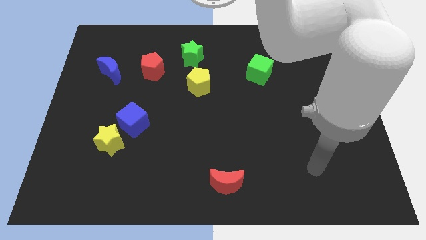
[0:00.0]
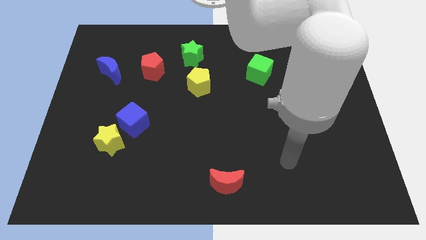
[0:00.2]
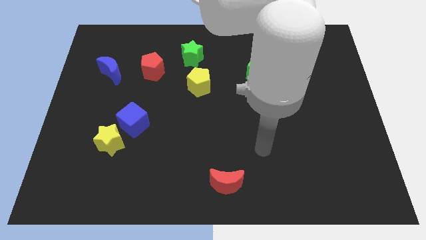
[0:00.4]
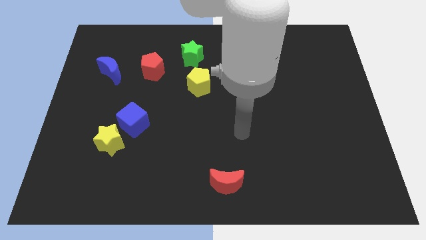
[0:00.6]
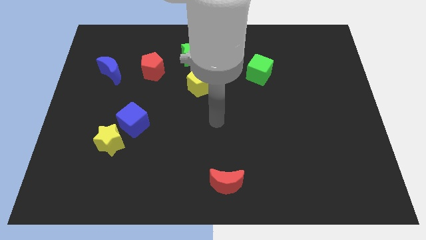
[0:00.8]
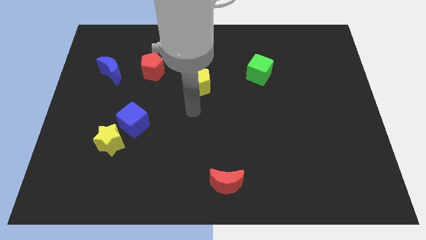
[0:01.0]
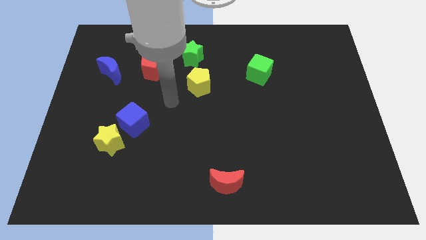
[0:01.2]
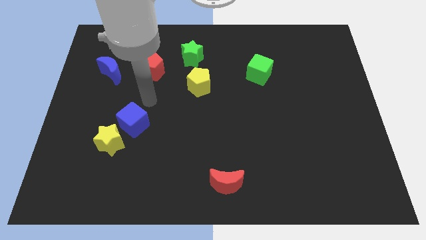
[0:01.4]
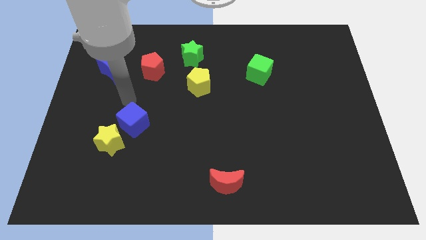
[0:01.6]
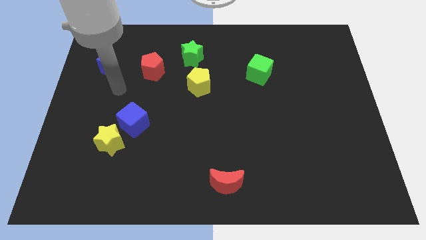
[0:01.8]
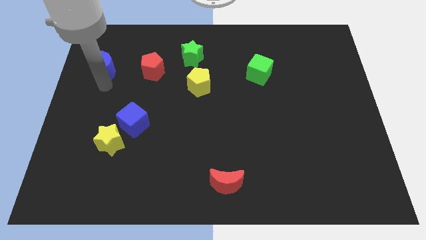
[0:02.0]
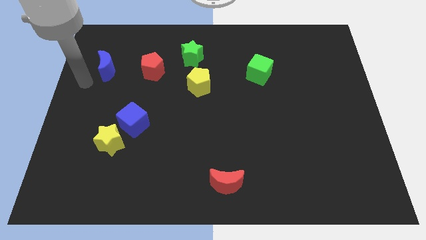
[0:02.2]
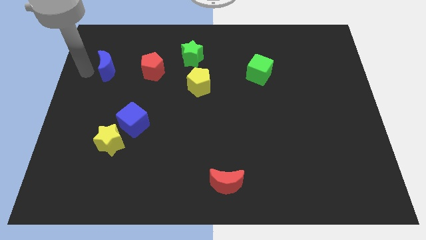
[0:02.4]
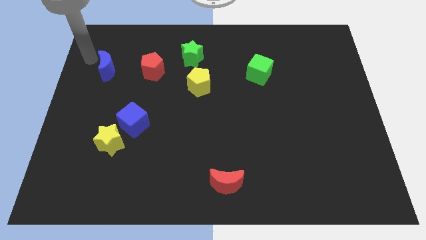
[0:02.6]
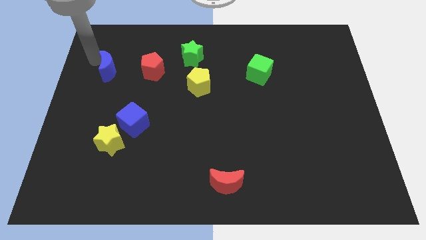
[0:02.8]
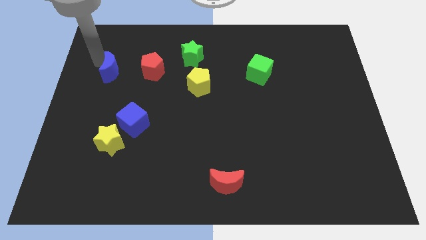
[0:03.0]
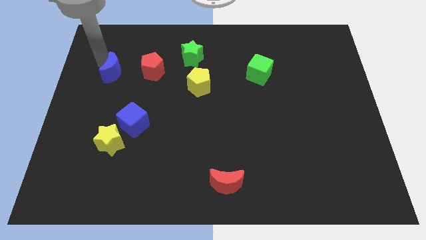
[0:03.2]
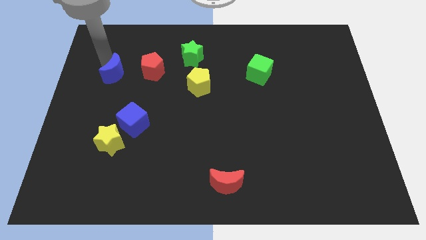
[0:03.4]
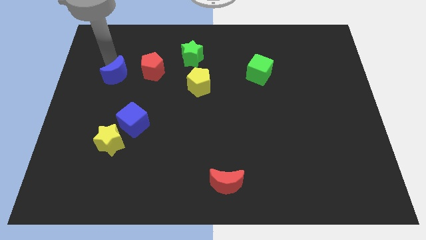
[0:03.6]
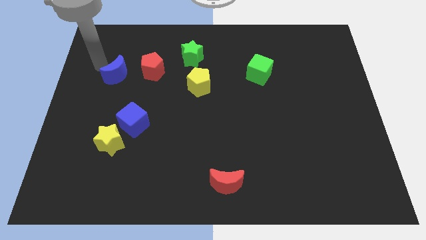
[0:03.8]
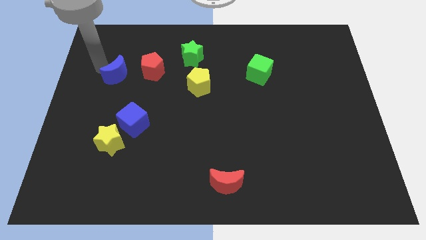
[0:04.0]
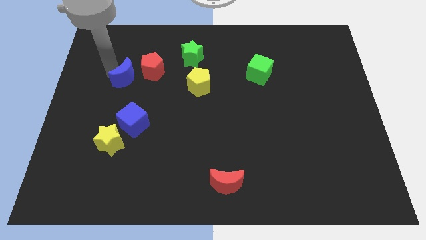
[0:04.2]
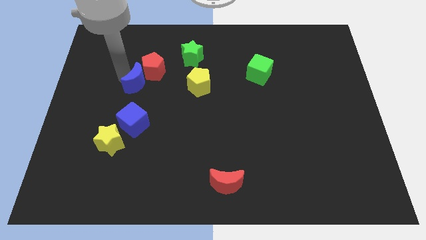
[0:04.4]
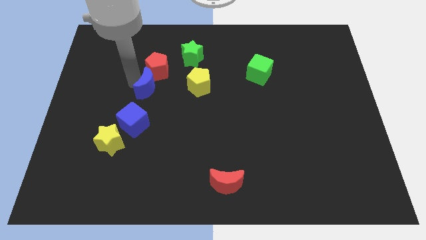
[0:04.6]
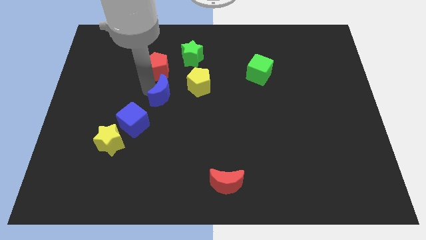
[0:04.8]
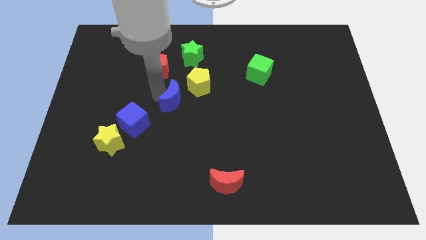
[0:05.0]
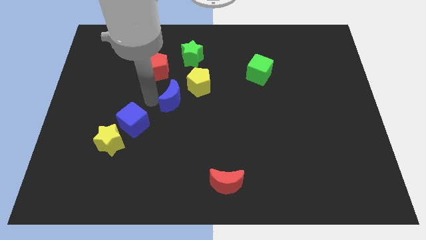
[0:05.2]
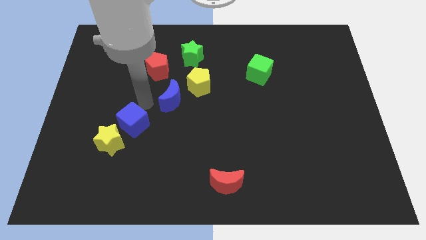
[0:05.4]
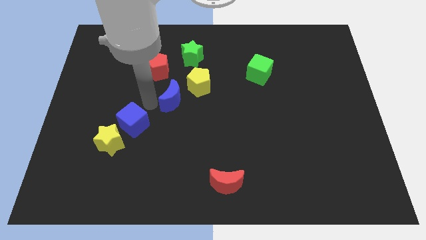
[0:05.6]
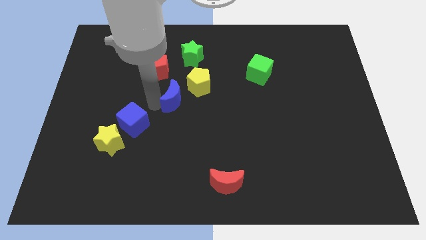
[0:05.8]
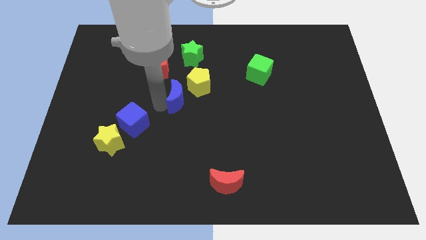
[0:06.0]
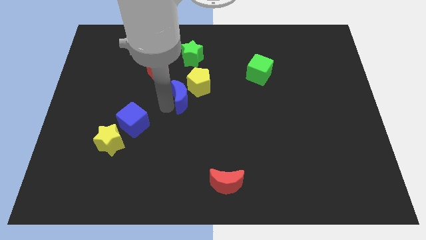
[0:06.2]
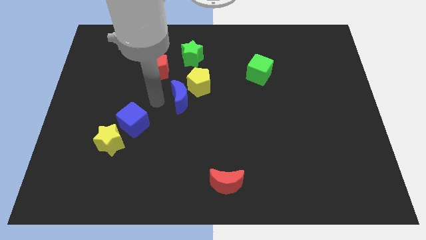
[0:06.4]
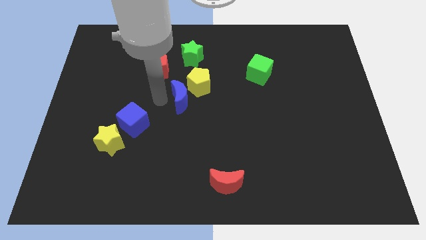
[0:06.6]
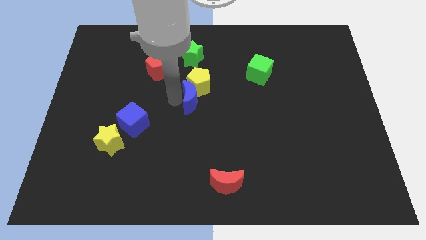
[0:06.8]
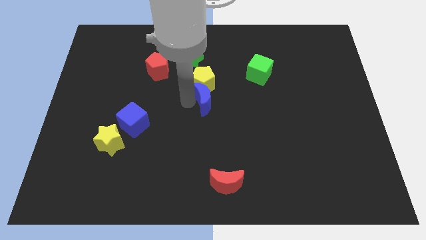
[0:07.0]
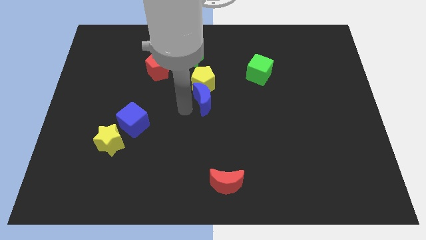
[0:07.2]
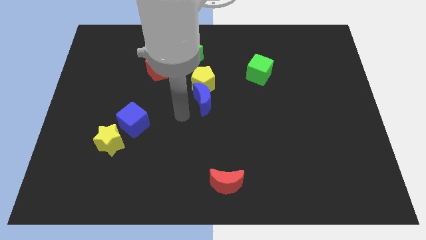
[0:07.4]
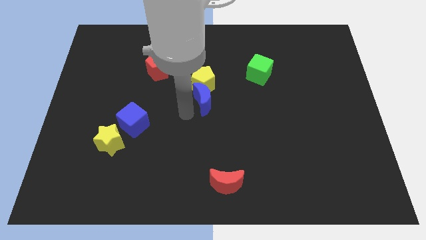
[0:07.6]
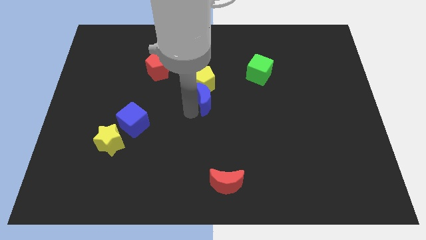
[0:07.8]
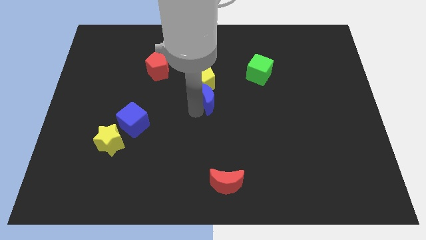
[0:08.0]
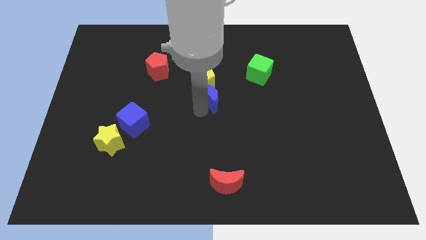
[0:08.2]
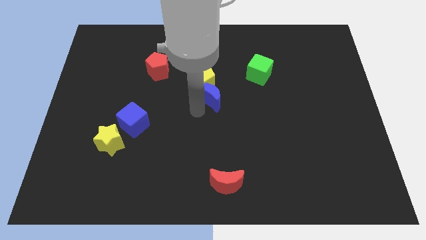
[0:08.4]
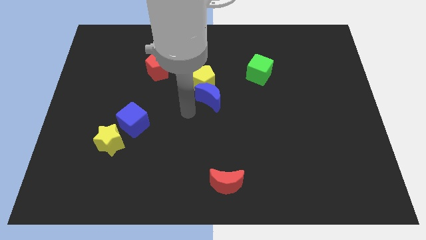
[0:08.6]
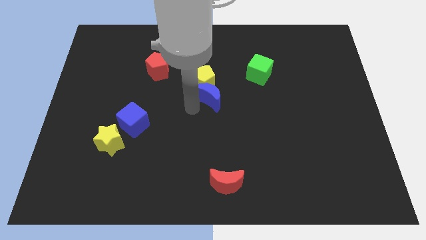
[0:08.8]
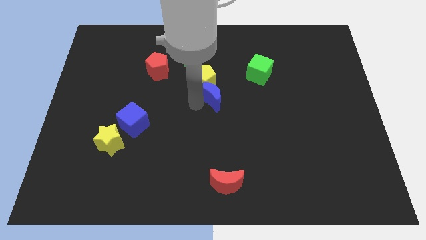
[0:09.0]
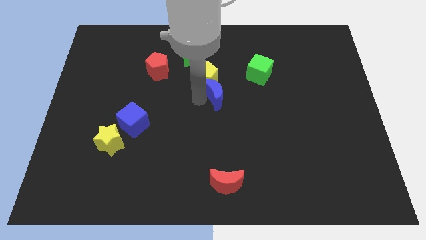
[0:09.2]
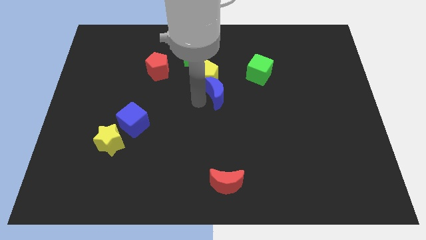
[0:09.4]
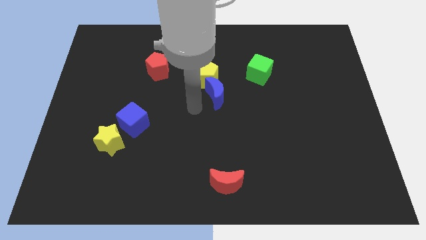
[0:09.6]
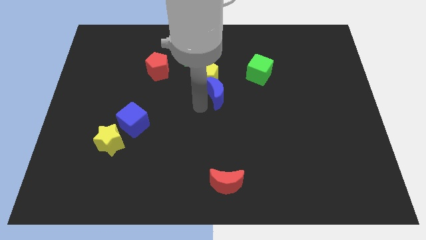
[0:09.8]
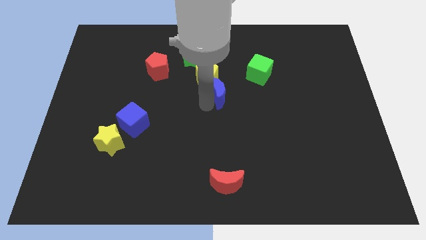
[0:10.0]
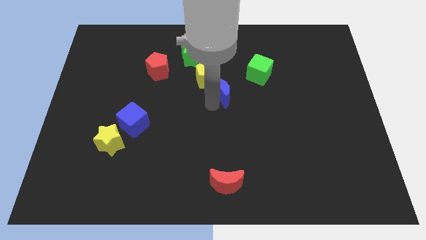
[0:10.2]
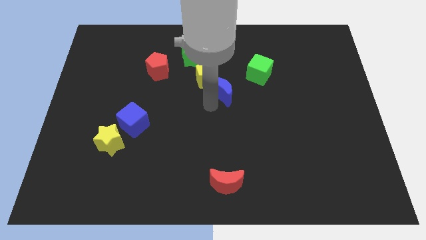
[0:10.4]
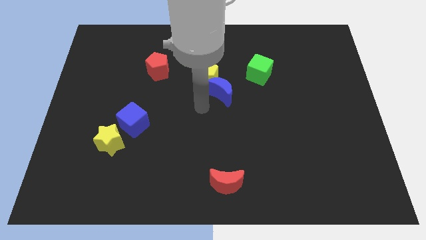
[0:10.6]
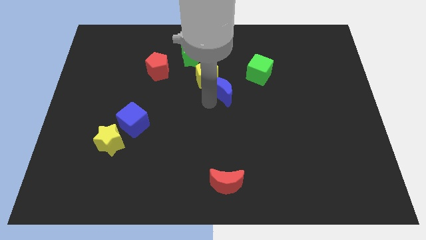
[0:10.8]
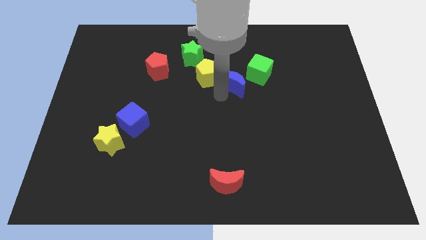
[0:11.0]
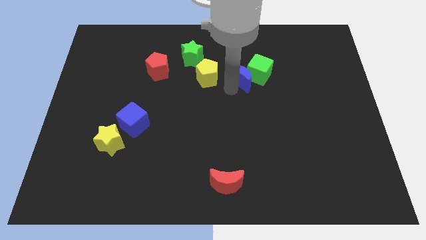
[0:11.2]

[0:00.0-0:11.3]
move the blue moon close to the green cube

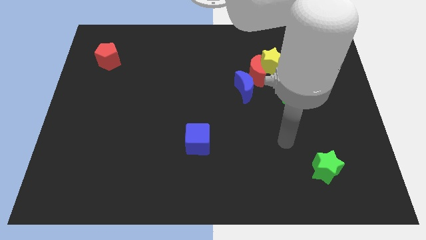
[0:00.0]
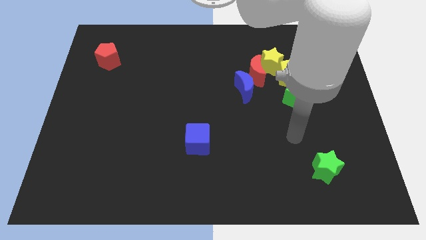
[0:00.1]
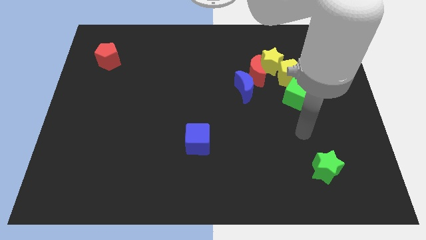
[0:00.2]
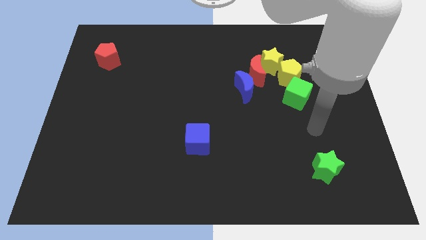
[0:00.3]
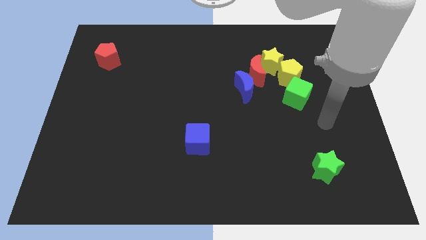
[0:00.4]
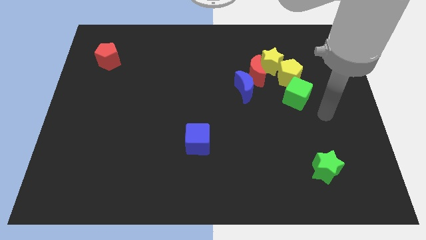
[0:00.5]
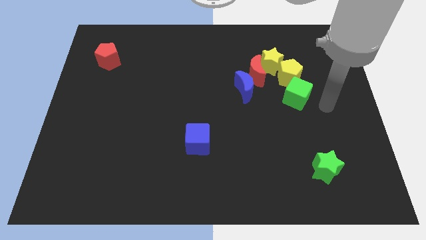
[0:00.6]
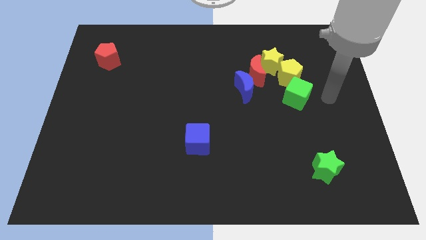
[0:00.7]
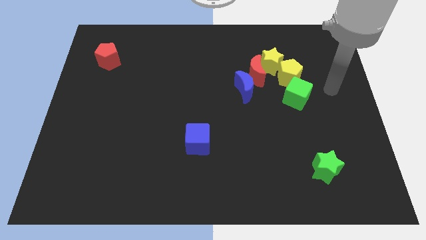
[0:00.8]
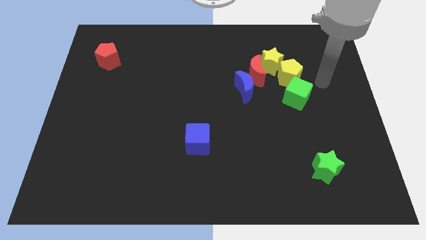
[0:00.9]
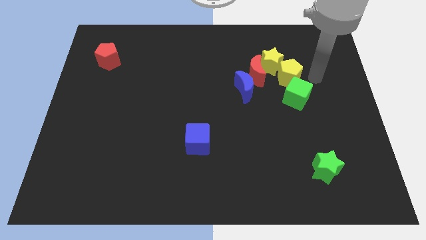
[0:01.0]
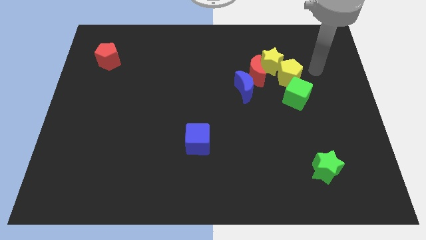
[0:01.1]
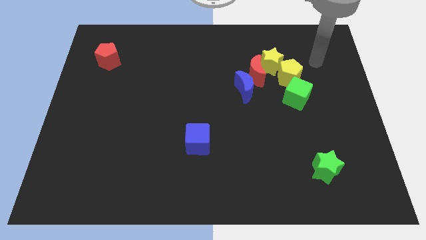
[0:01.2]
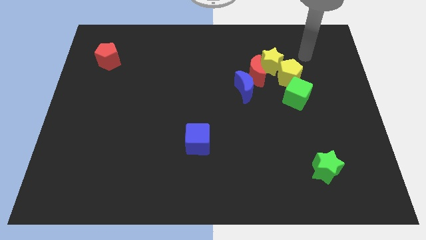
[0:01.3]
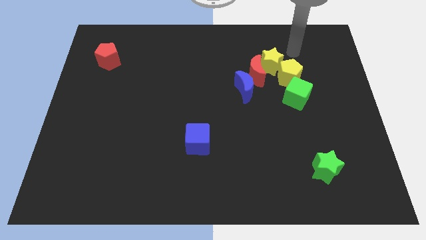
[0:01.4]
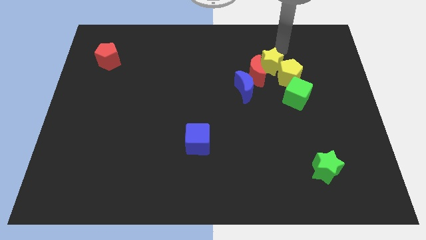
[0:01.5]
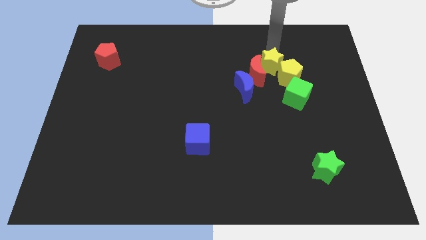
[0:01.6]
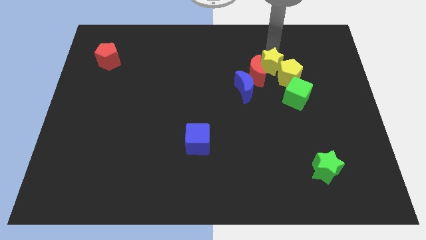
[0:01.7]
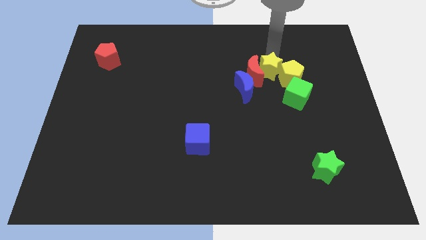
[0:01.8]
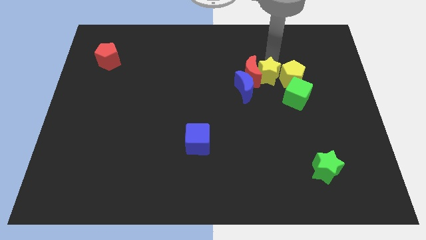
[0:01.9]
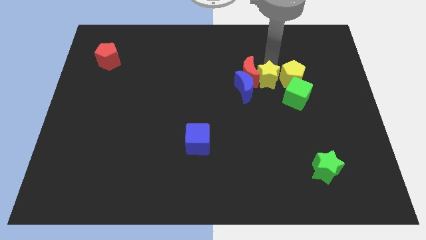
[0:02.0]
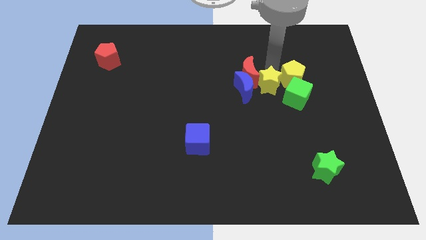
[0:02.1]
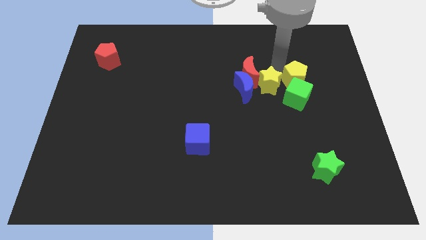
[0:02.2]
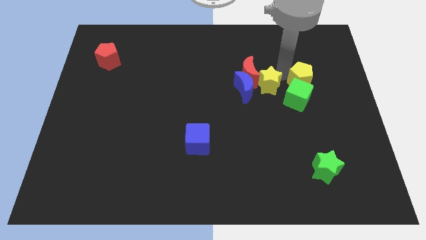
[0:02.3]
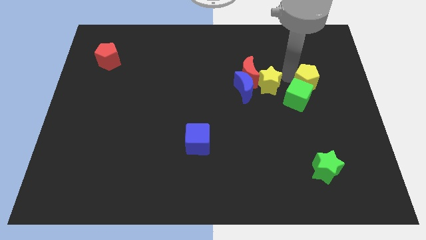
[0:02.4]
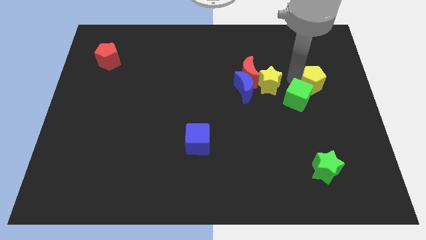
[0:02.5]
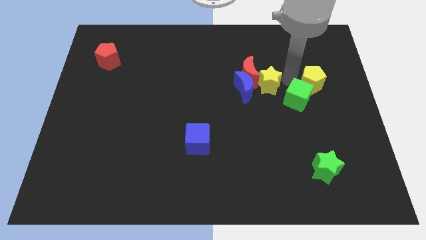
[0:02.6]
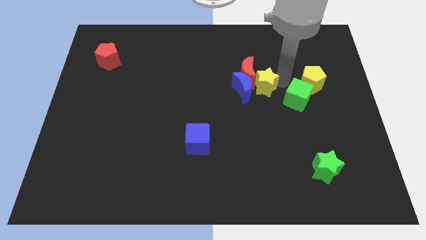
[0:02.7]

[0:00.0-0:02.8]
push the yellow star to the blue moon
